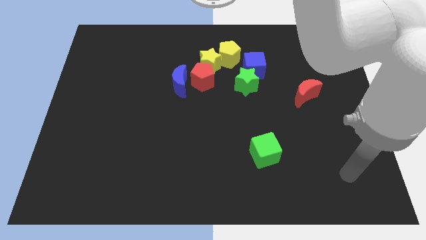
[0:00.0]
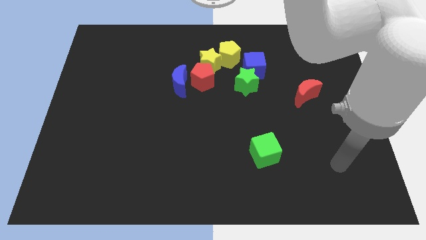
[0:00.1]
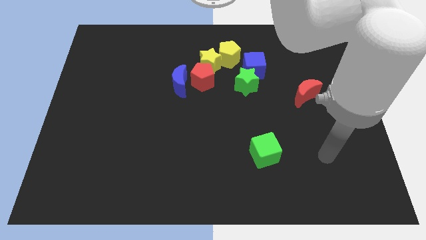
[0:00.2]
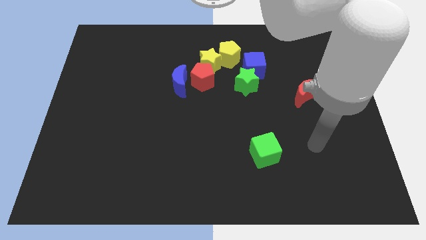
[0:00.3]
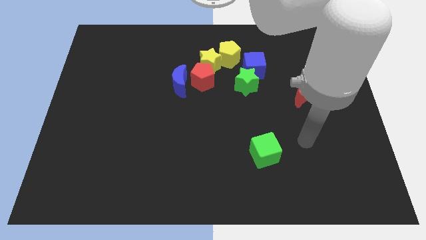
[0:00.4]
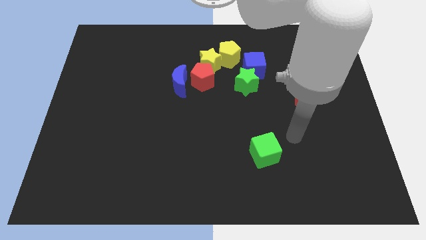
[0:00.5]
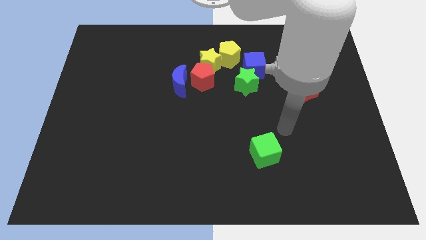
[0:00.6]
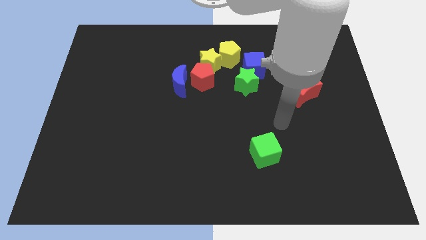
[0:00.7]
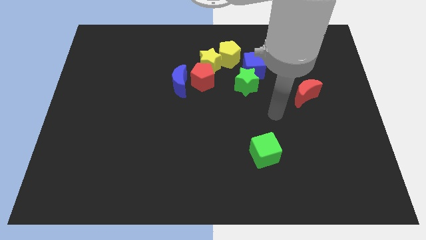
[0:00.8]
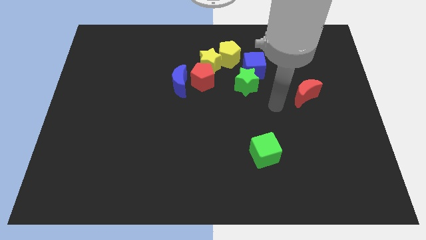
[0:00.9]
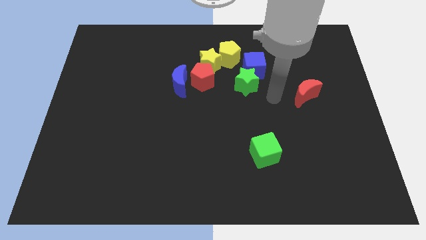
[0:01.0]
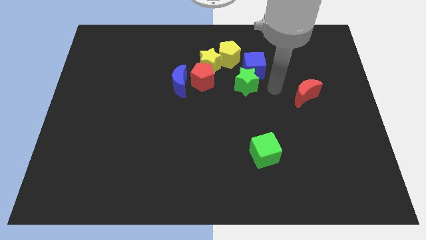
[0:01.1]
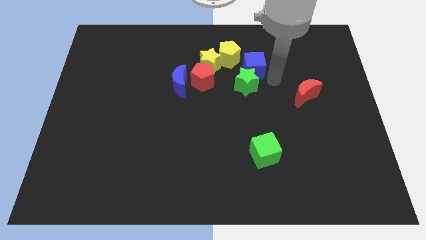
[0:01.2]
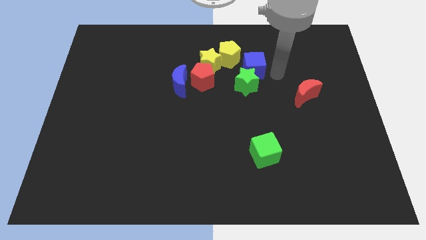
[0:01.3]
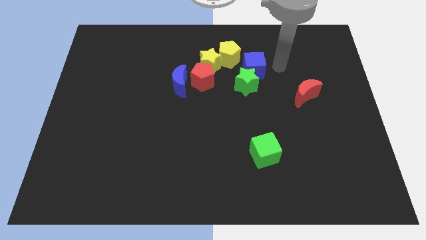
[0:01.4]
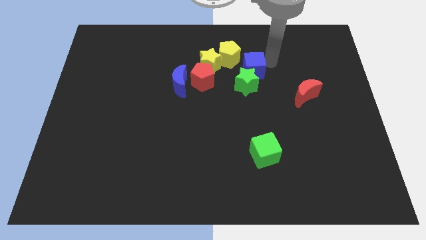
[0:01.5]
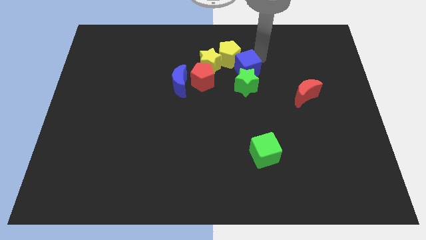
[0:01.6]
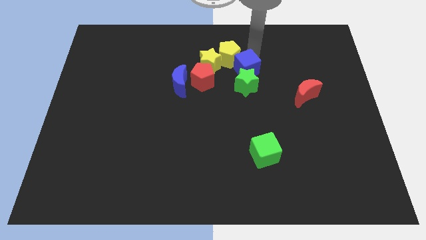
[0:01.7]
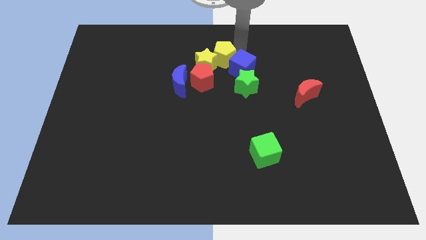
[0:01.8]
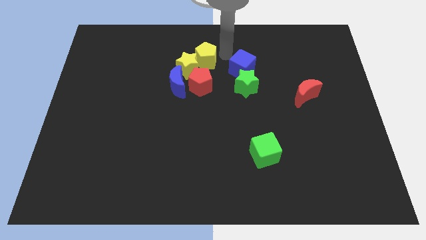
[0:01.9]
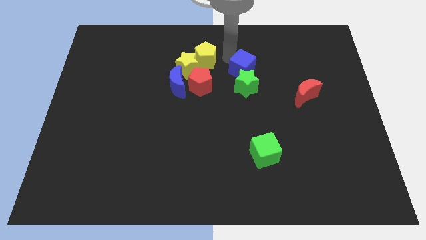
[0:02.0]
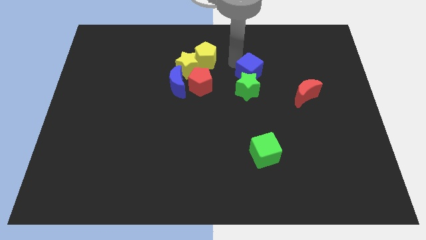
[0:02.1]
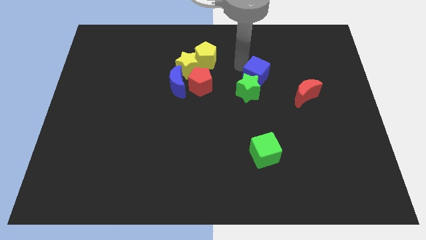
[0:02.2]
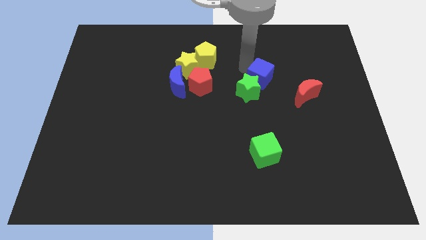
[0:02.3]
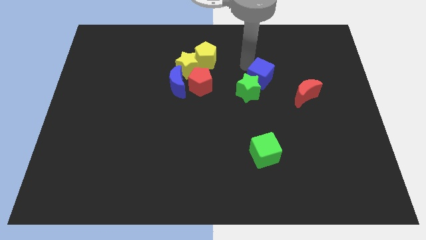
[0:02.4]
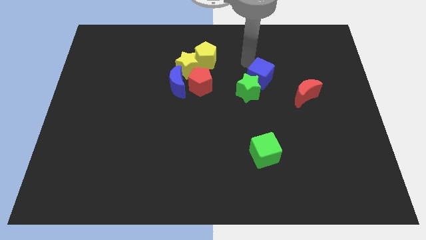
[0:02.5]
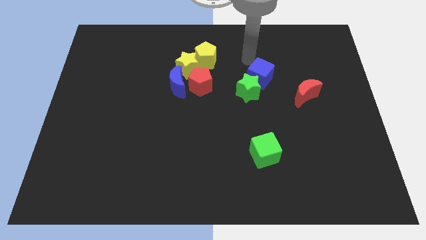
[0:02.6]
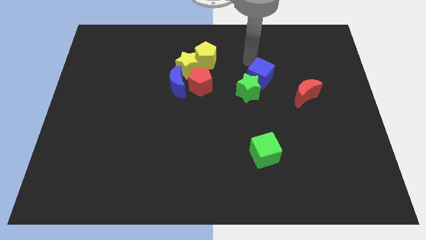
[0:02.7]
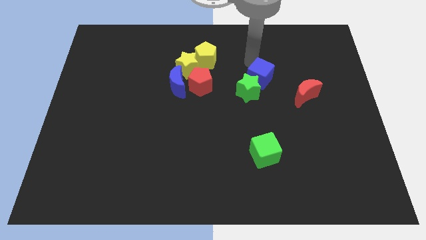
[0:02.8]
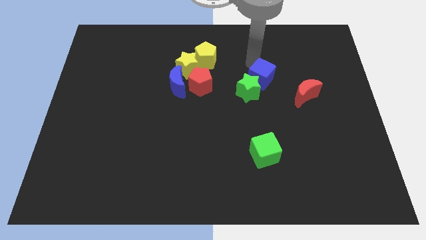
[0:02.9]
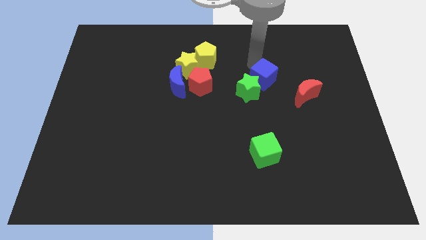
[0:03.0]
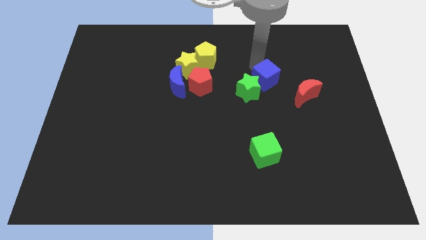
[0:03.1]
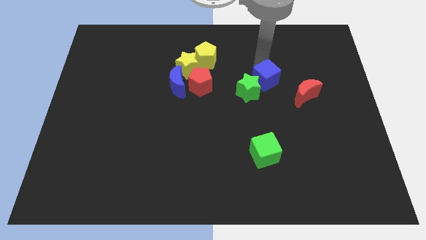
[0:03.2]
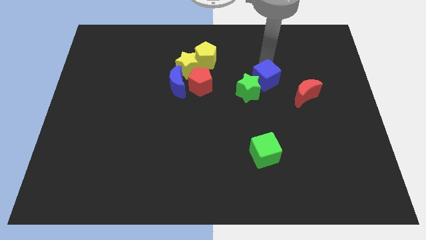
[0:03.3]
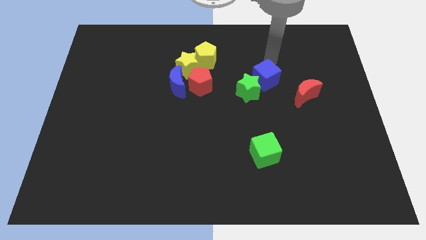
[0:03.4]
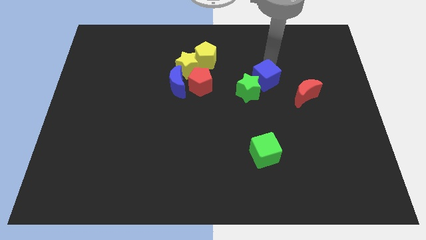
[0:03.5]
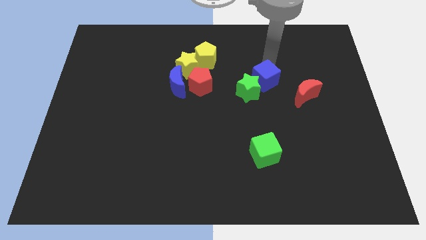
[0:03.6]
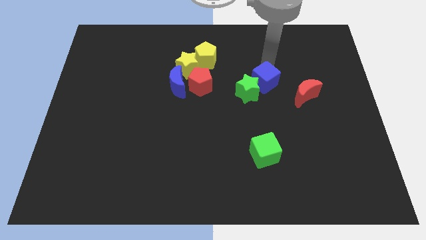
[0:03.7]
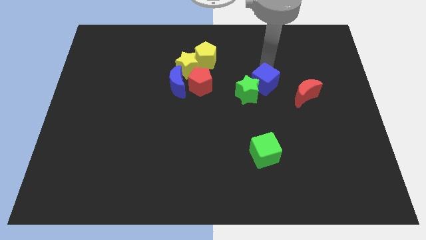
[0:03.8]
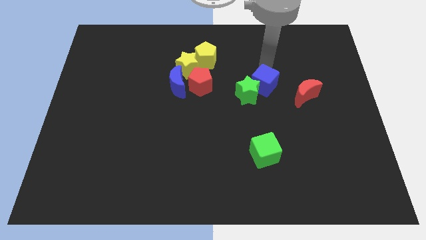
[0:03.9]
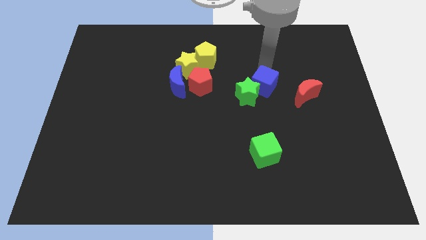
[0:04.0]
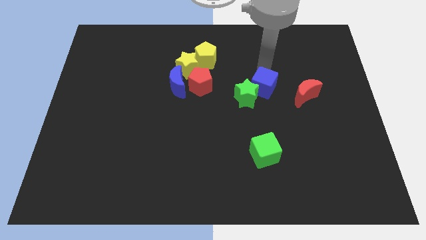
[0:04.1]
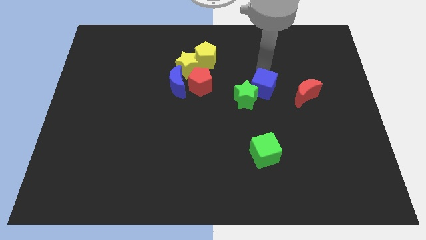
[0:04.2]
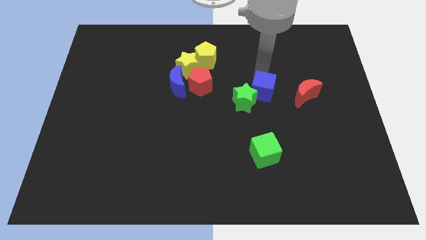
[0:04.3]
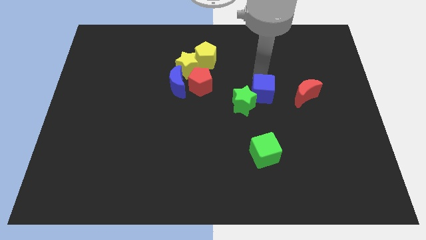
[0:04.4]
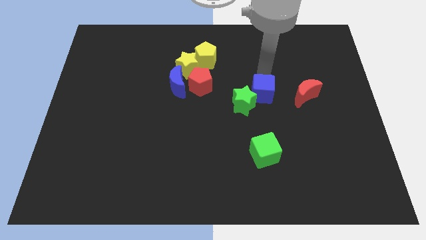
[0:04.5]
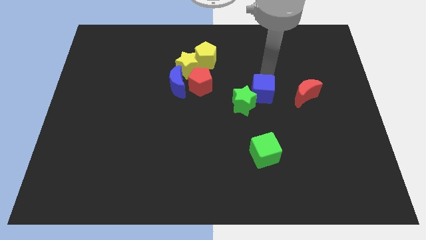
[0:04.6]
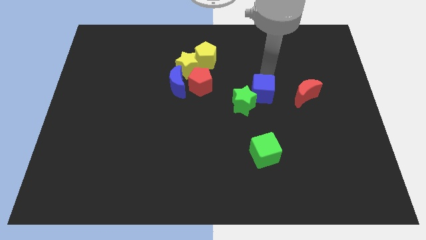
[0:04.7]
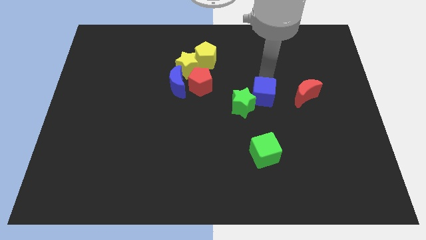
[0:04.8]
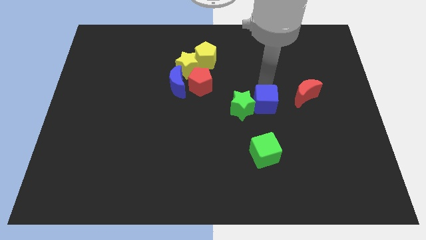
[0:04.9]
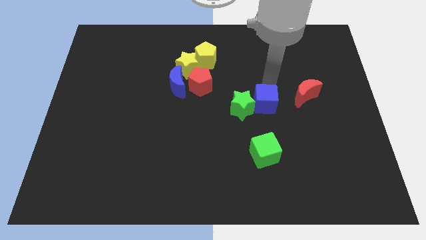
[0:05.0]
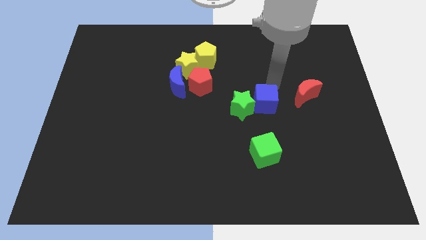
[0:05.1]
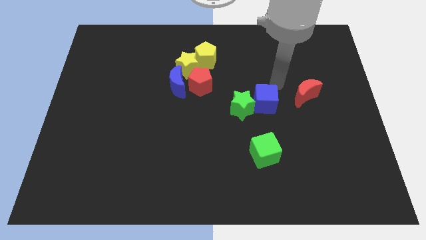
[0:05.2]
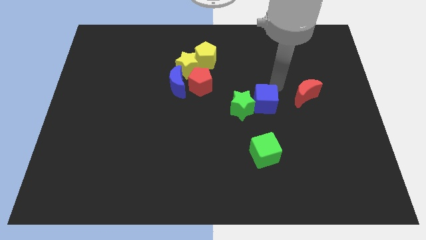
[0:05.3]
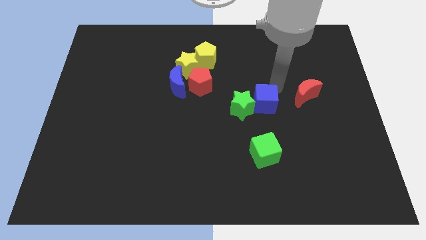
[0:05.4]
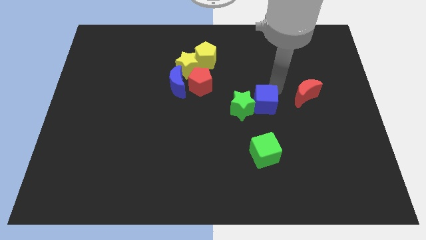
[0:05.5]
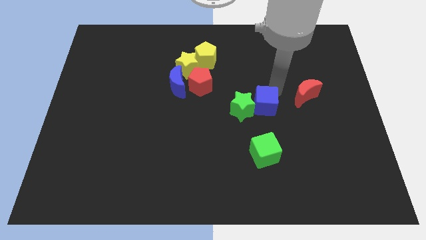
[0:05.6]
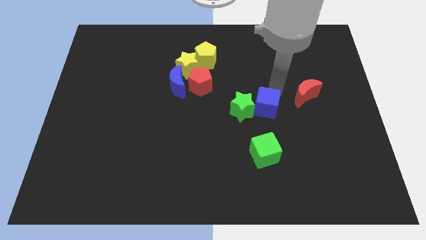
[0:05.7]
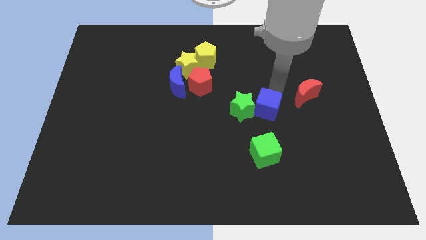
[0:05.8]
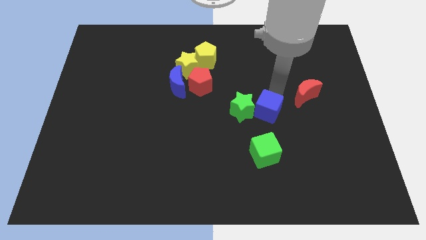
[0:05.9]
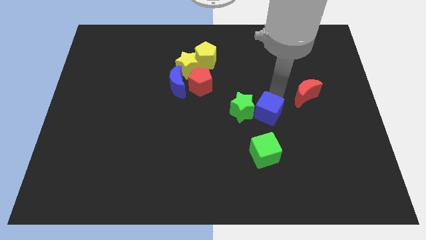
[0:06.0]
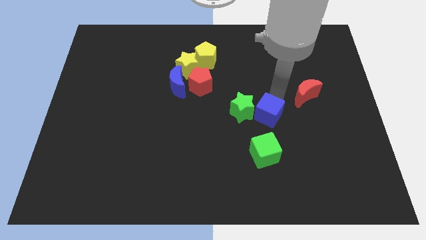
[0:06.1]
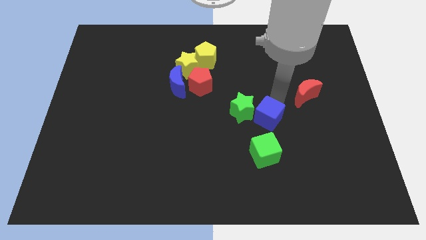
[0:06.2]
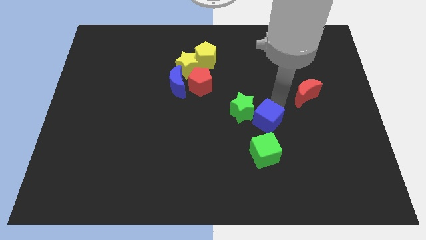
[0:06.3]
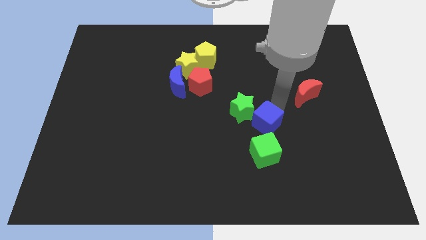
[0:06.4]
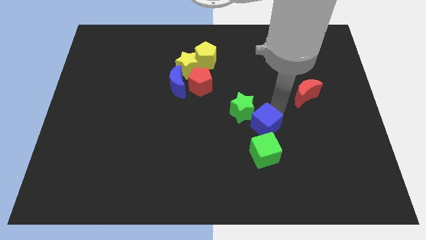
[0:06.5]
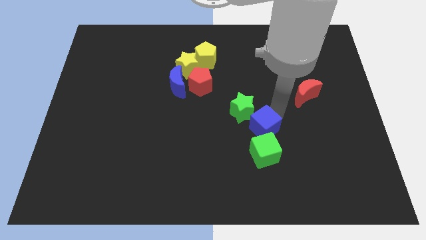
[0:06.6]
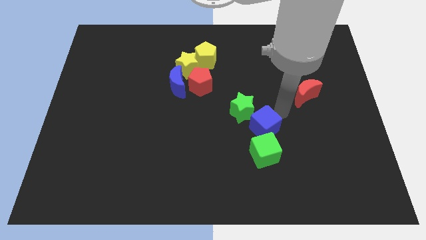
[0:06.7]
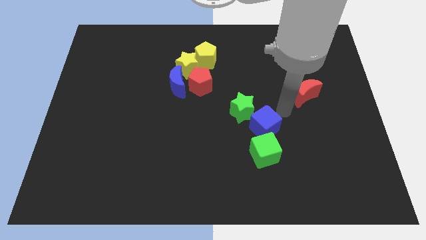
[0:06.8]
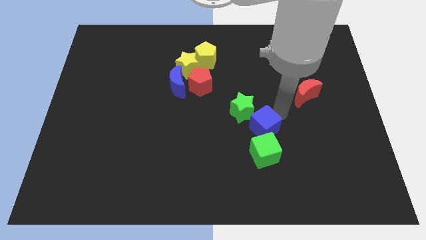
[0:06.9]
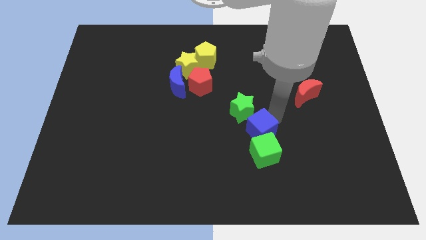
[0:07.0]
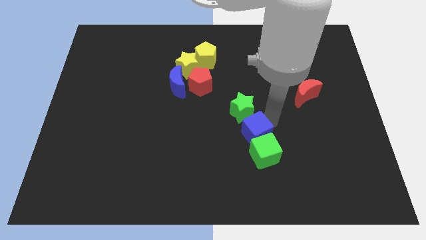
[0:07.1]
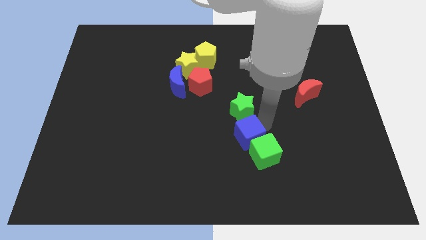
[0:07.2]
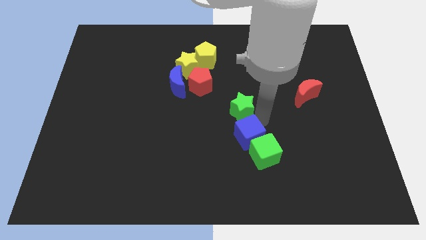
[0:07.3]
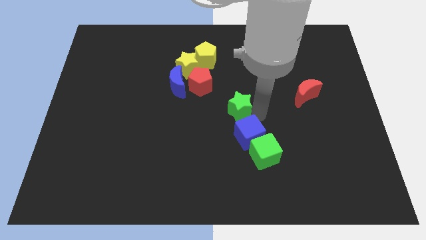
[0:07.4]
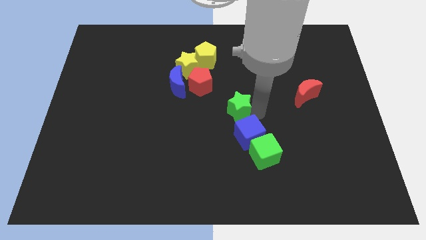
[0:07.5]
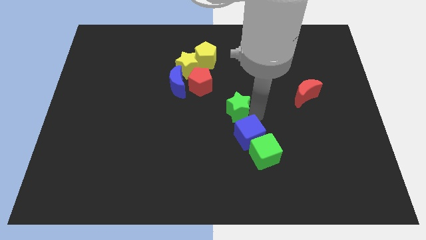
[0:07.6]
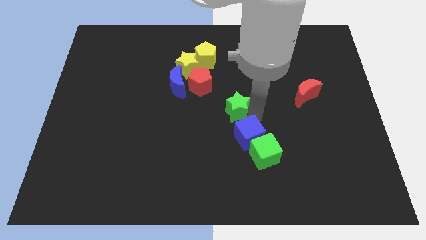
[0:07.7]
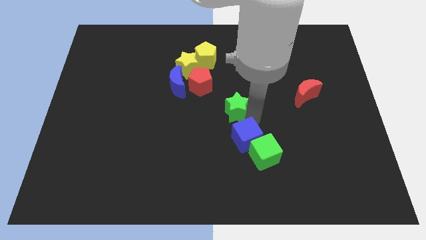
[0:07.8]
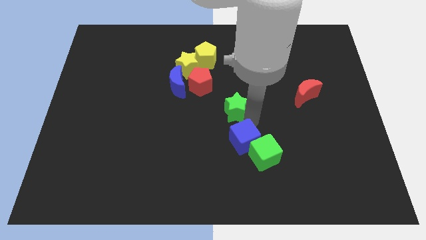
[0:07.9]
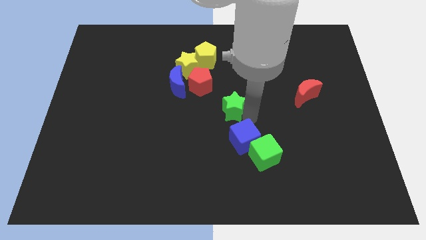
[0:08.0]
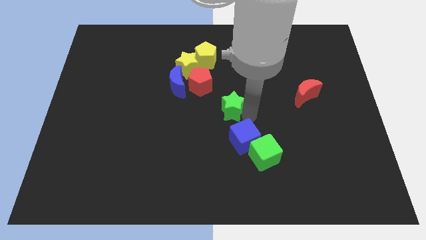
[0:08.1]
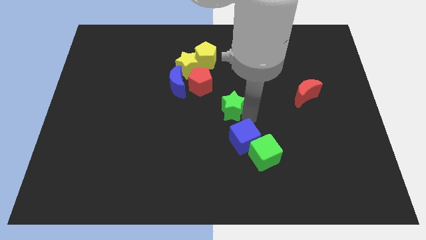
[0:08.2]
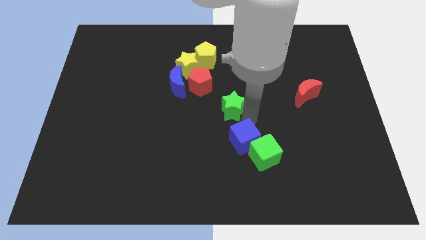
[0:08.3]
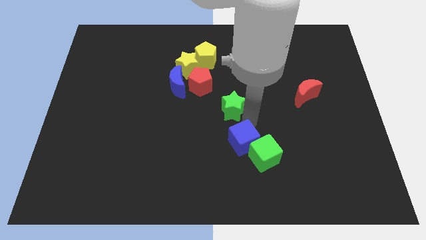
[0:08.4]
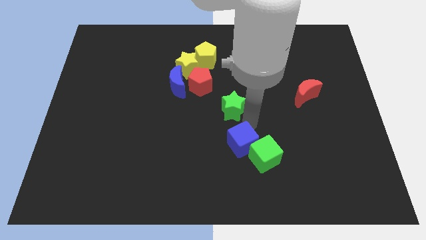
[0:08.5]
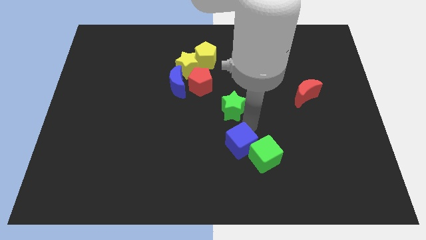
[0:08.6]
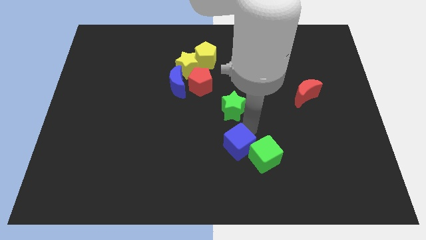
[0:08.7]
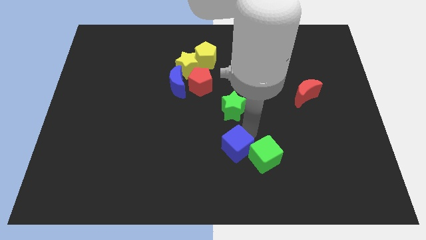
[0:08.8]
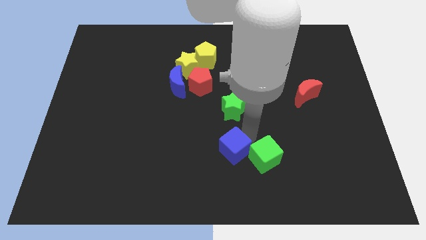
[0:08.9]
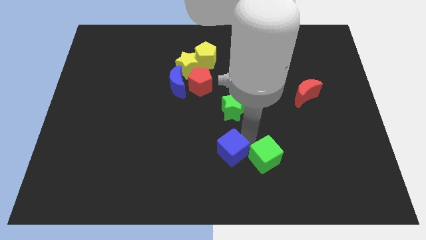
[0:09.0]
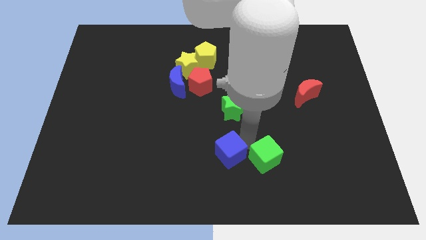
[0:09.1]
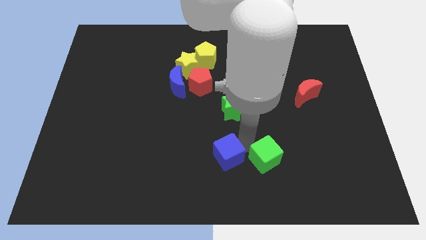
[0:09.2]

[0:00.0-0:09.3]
push the blue cube to the bottom
